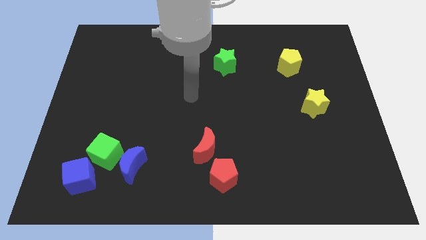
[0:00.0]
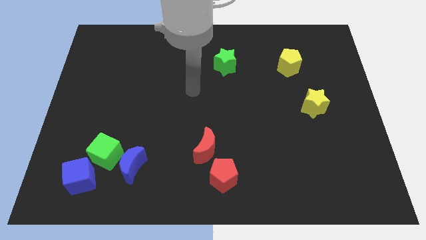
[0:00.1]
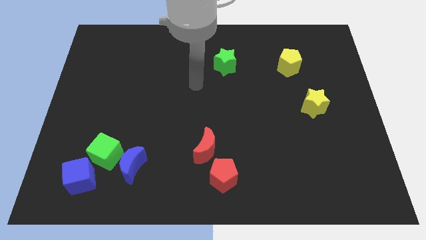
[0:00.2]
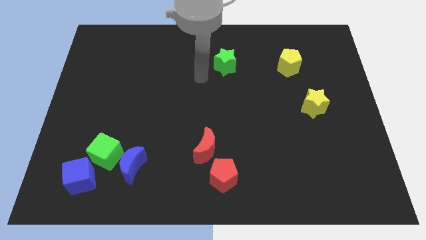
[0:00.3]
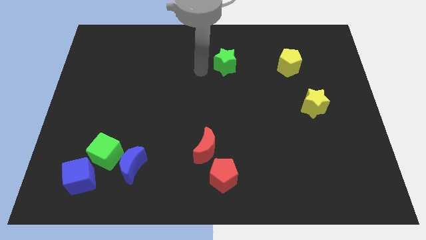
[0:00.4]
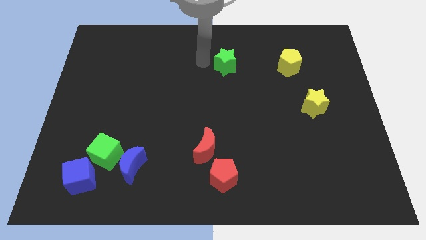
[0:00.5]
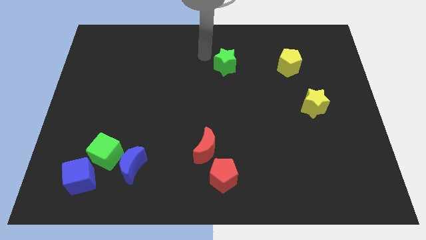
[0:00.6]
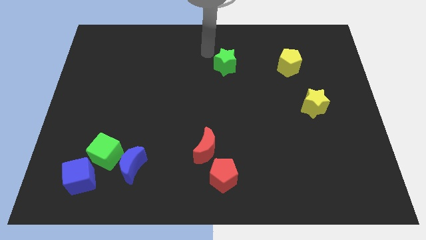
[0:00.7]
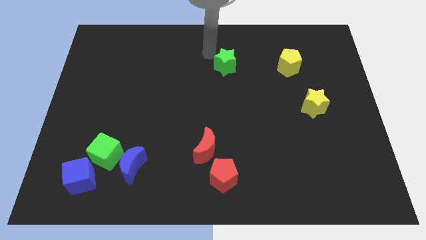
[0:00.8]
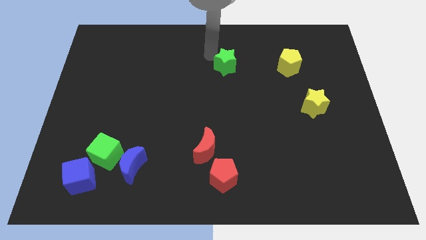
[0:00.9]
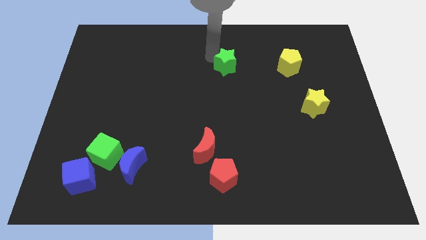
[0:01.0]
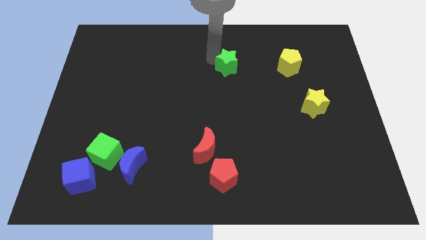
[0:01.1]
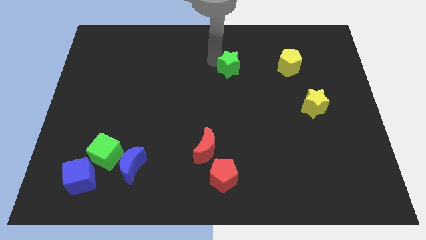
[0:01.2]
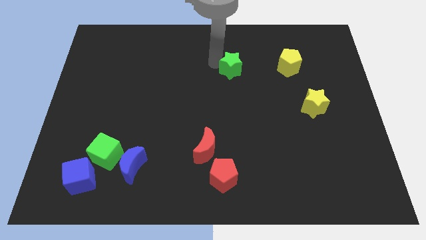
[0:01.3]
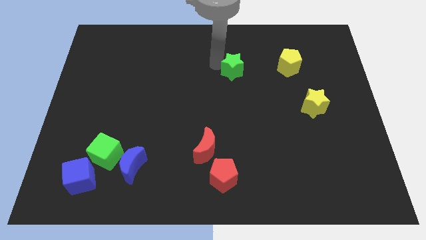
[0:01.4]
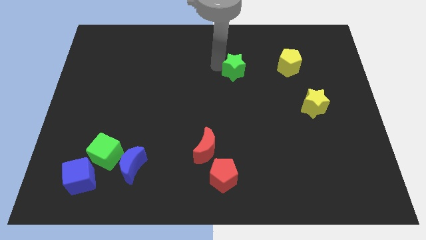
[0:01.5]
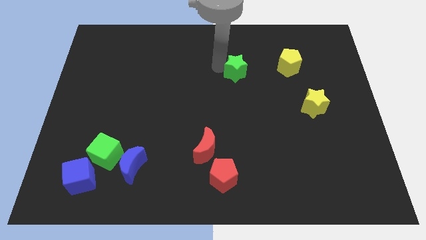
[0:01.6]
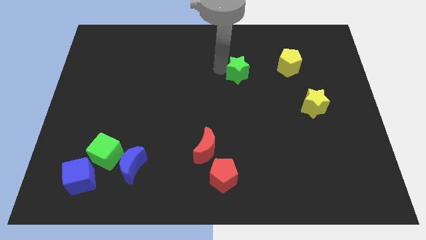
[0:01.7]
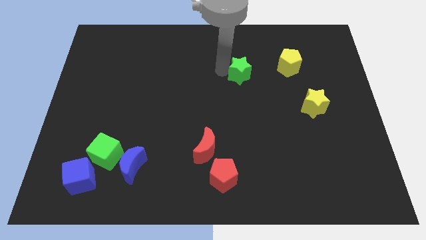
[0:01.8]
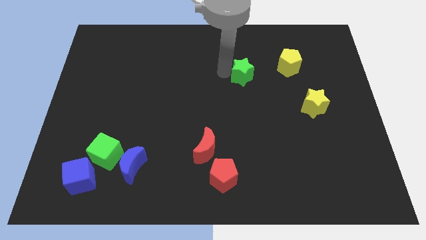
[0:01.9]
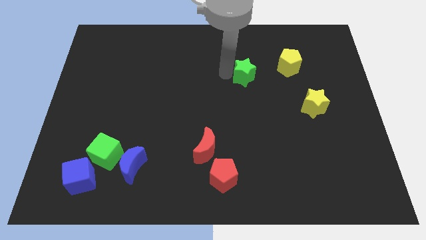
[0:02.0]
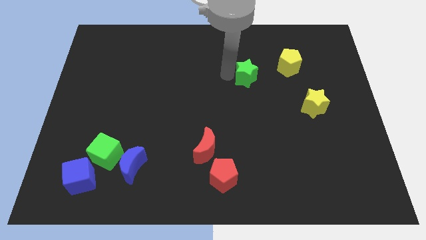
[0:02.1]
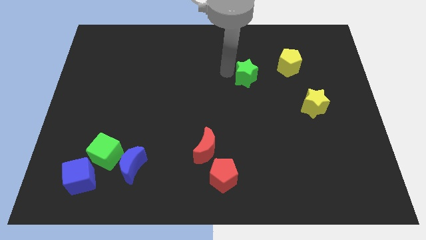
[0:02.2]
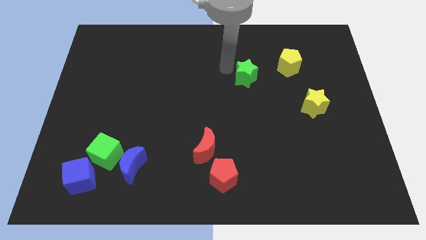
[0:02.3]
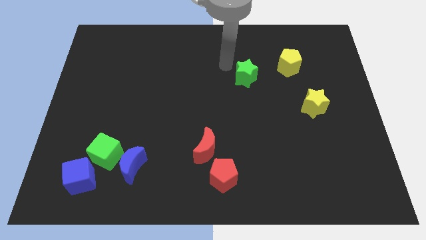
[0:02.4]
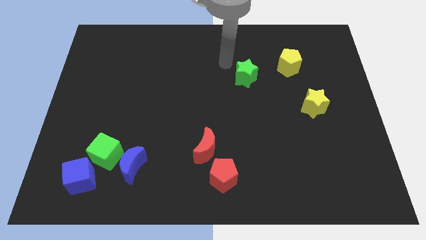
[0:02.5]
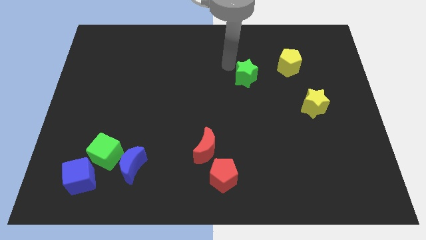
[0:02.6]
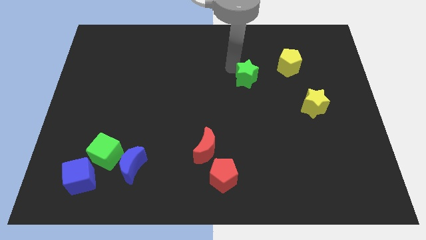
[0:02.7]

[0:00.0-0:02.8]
slightly move the green star down and then to the right

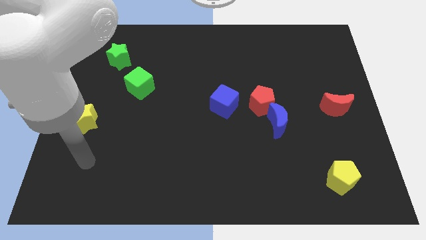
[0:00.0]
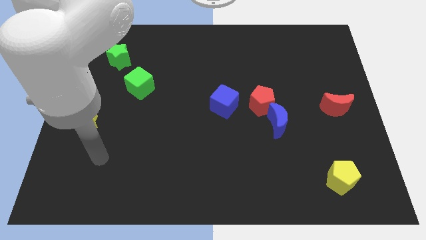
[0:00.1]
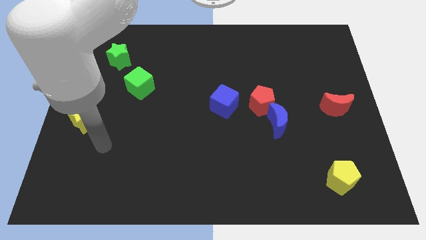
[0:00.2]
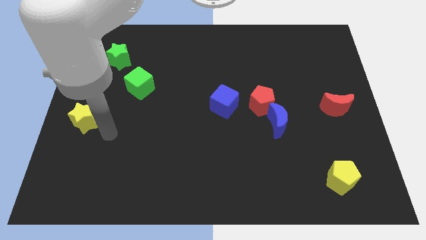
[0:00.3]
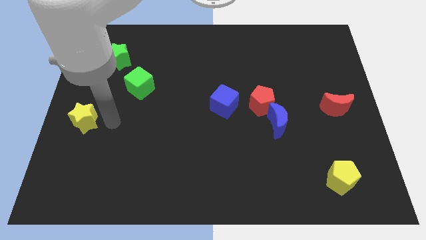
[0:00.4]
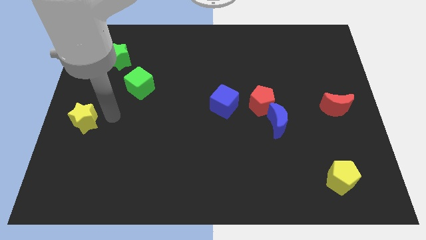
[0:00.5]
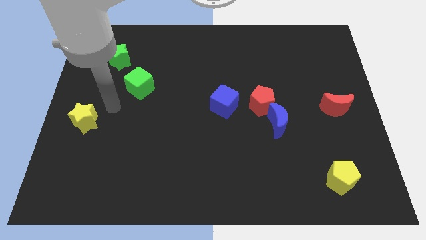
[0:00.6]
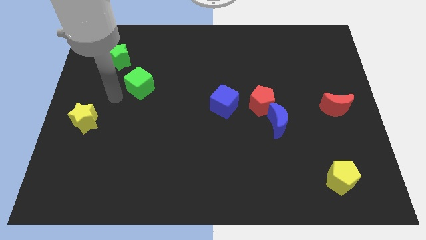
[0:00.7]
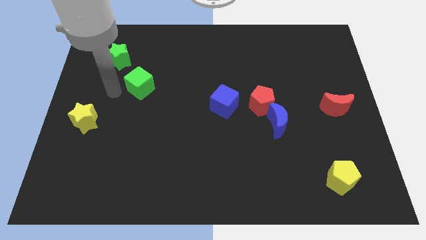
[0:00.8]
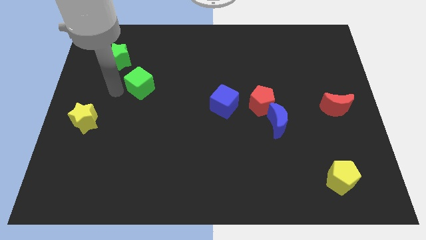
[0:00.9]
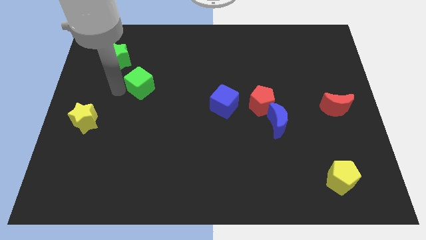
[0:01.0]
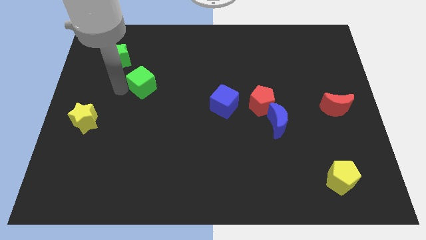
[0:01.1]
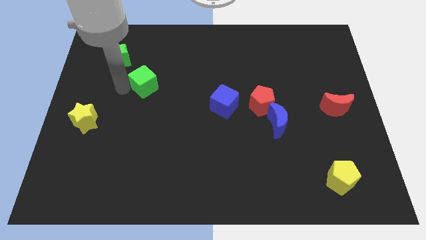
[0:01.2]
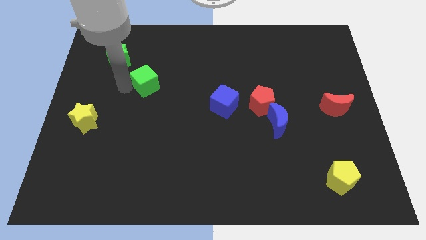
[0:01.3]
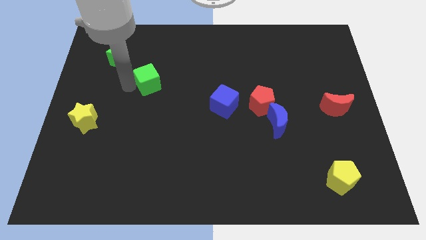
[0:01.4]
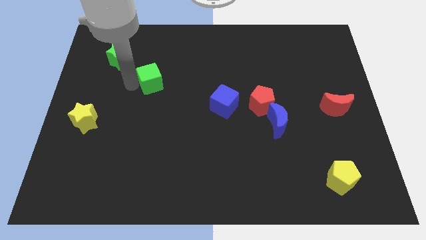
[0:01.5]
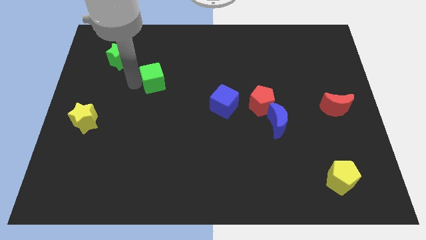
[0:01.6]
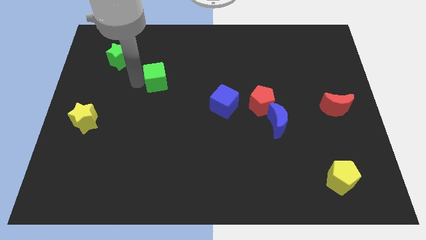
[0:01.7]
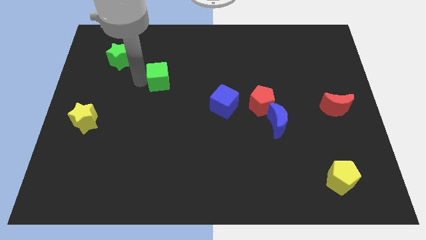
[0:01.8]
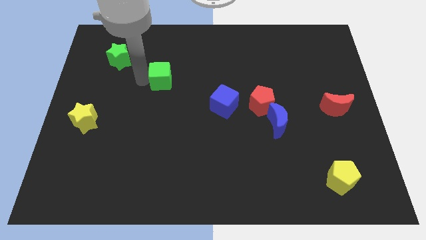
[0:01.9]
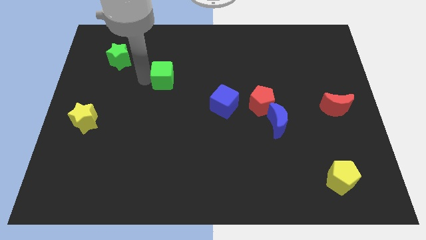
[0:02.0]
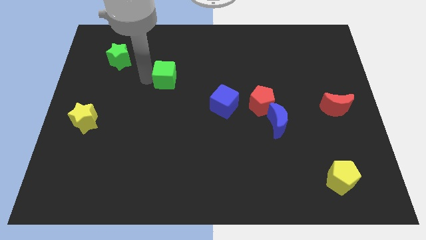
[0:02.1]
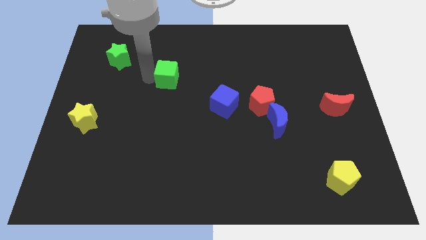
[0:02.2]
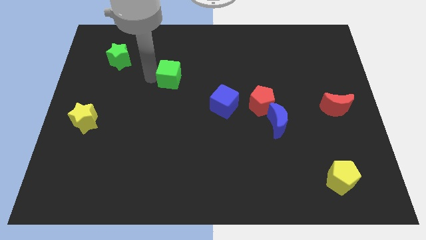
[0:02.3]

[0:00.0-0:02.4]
move the green cube right slightly

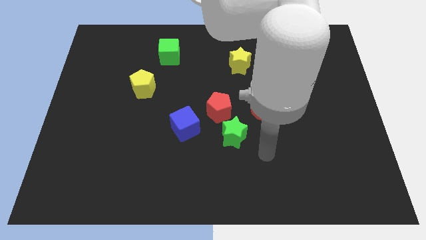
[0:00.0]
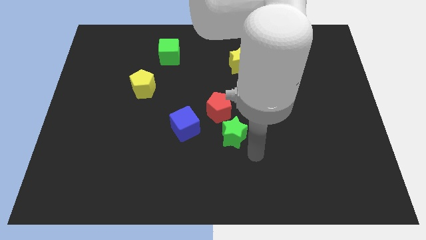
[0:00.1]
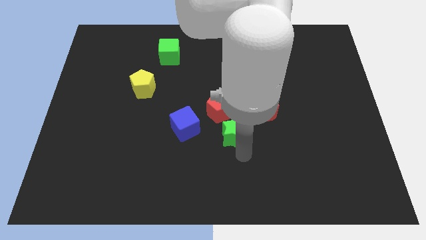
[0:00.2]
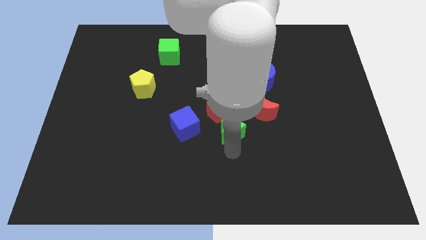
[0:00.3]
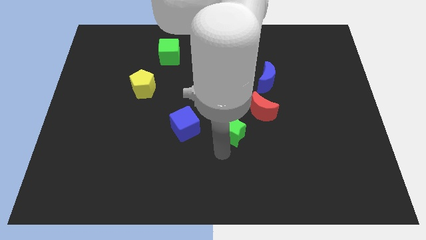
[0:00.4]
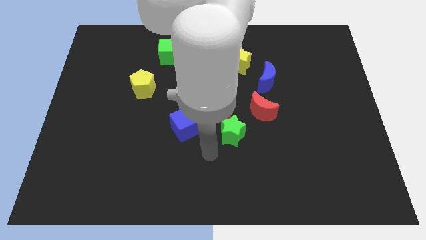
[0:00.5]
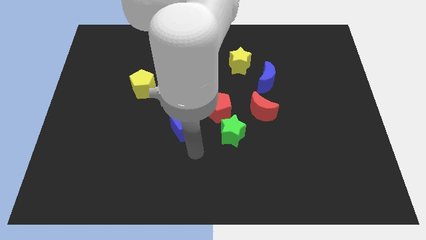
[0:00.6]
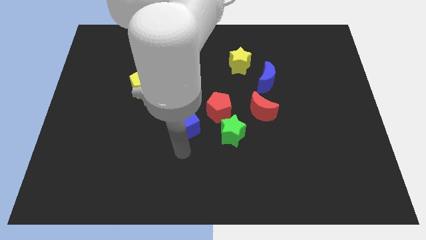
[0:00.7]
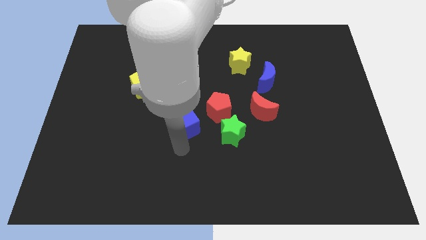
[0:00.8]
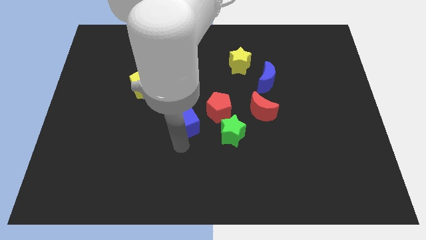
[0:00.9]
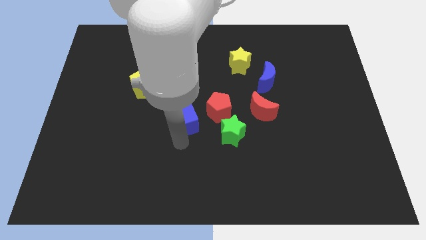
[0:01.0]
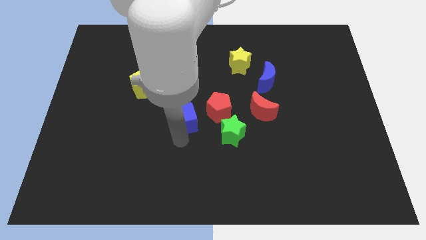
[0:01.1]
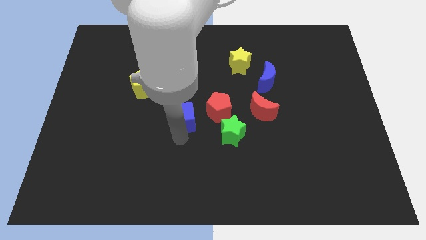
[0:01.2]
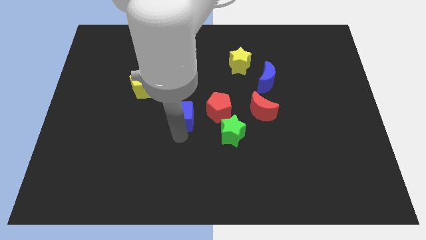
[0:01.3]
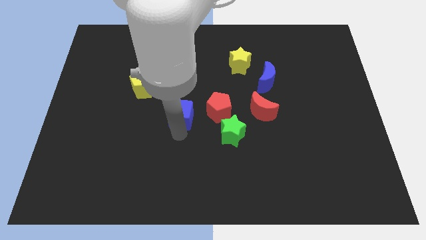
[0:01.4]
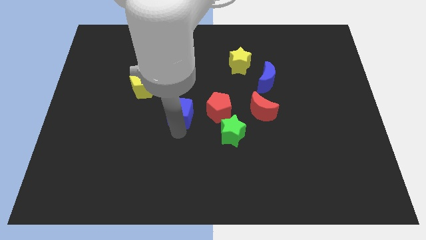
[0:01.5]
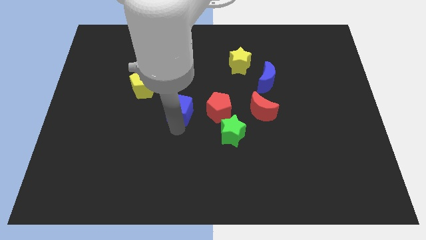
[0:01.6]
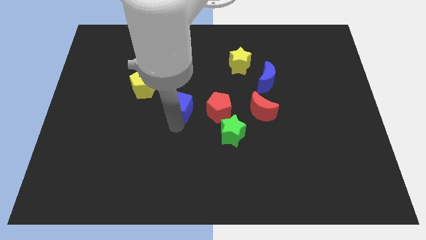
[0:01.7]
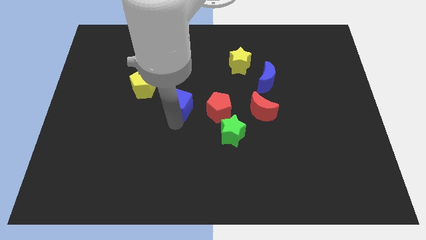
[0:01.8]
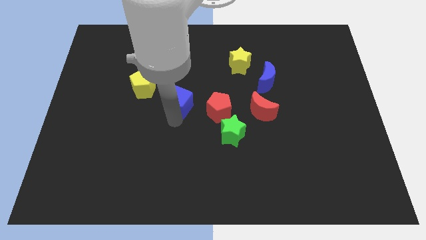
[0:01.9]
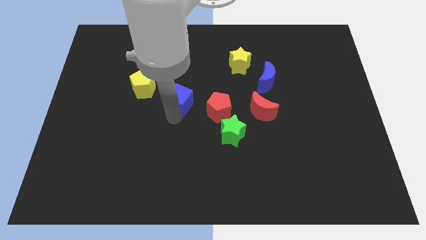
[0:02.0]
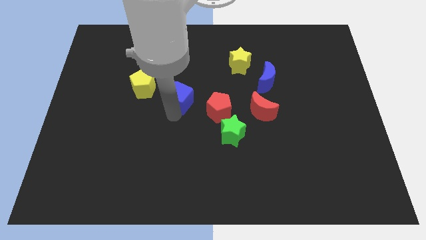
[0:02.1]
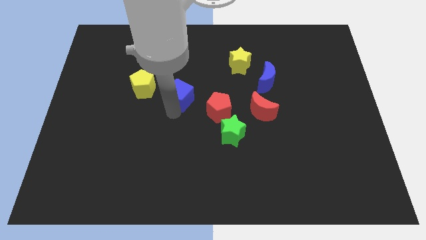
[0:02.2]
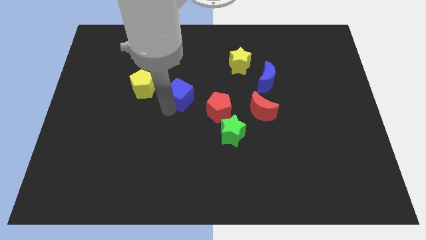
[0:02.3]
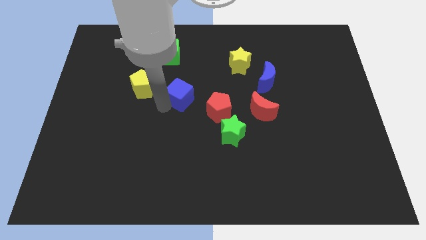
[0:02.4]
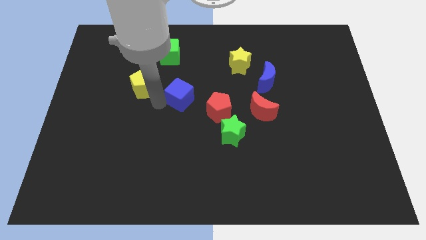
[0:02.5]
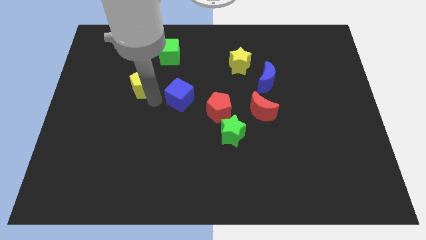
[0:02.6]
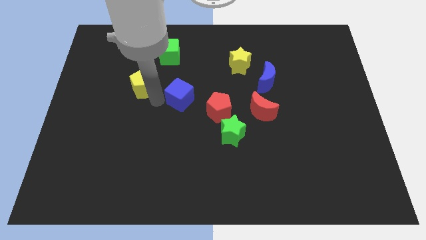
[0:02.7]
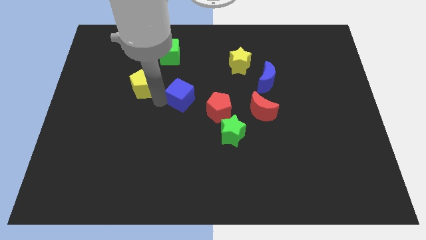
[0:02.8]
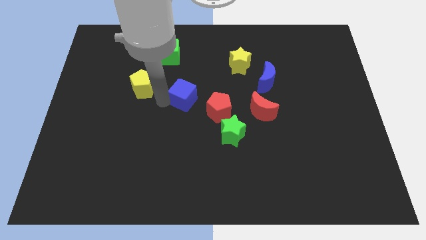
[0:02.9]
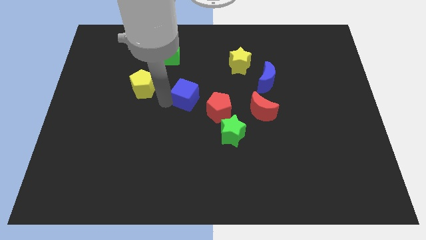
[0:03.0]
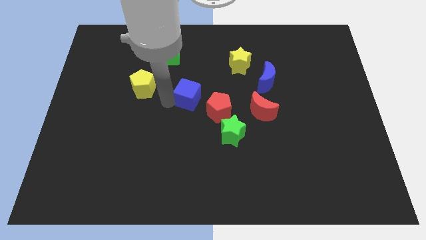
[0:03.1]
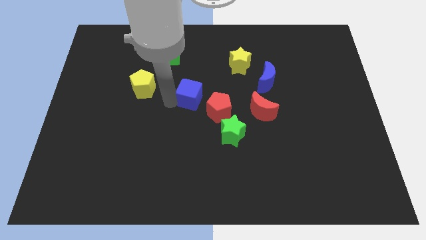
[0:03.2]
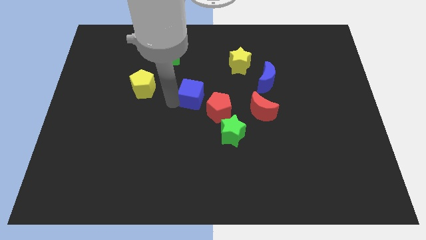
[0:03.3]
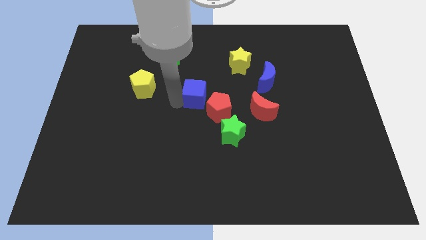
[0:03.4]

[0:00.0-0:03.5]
slightly move the blue cube upwards and then right
